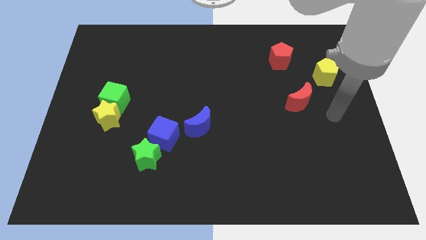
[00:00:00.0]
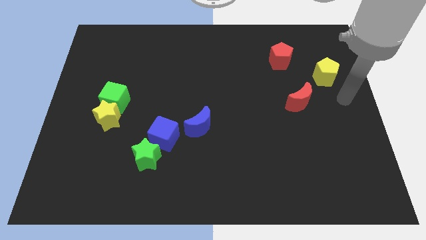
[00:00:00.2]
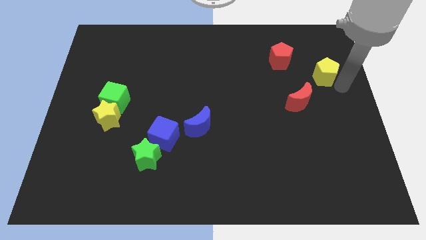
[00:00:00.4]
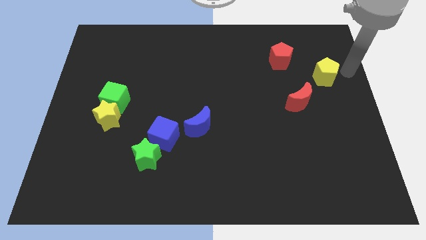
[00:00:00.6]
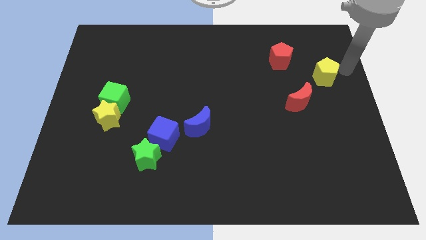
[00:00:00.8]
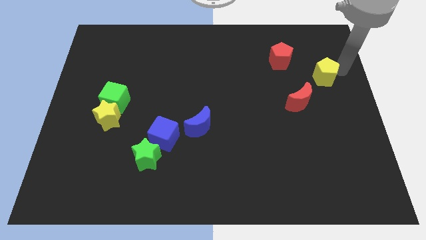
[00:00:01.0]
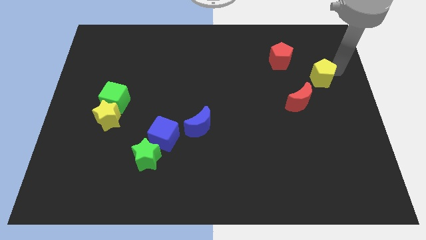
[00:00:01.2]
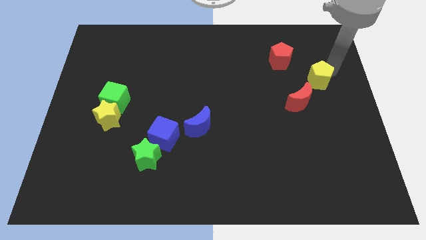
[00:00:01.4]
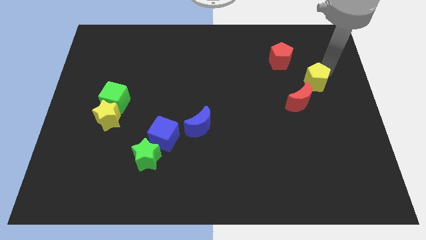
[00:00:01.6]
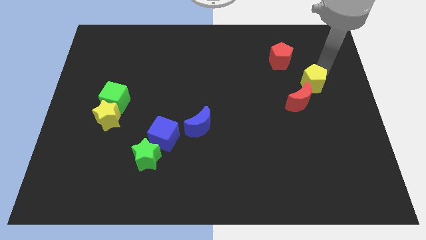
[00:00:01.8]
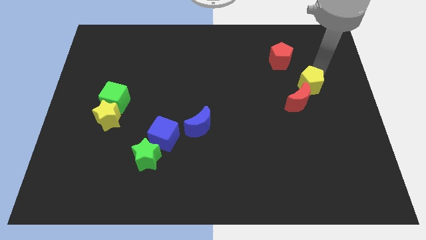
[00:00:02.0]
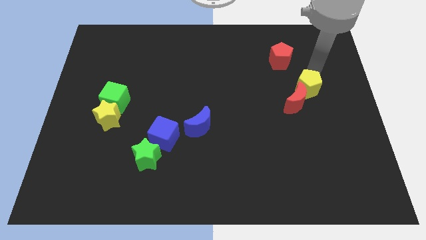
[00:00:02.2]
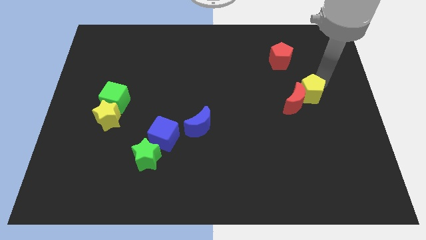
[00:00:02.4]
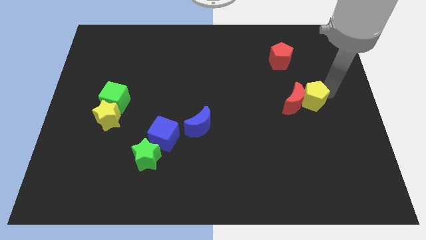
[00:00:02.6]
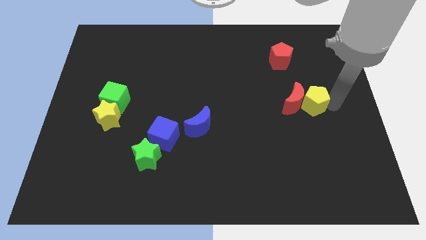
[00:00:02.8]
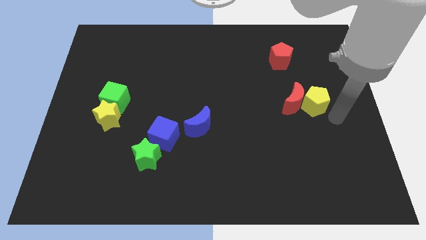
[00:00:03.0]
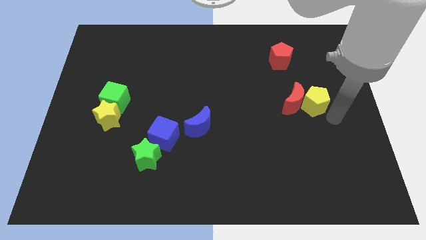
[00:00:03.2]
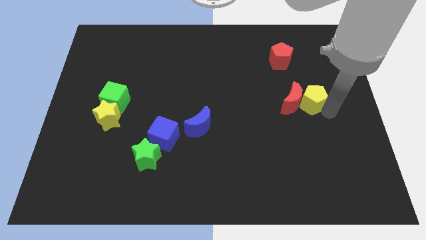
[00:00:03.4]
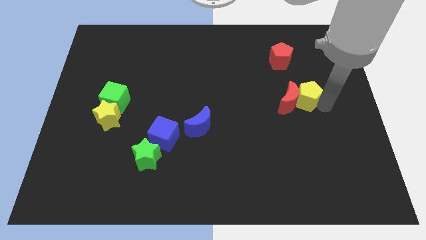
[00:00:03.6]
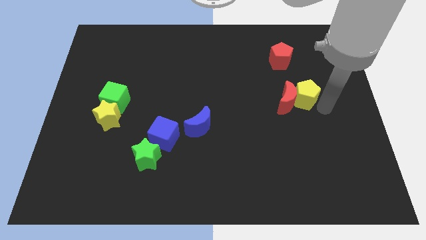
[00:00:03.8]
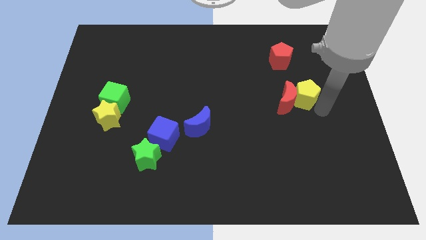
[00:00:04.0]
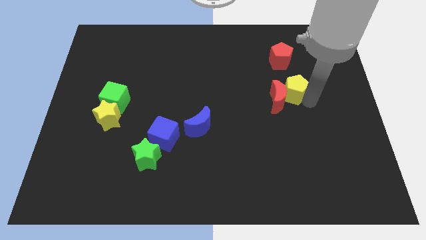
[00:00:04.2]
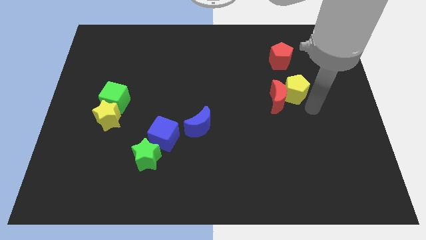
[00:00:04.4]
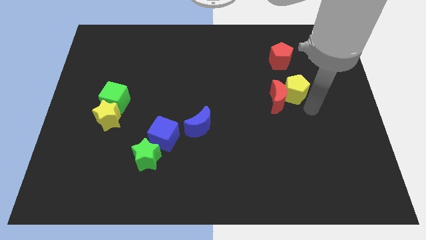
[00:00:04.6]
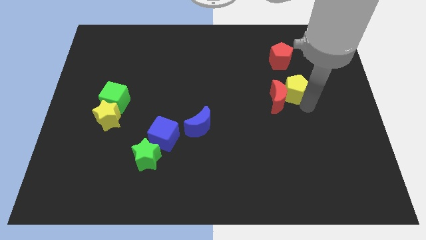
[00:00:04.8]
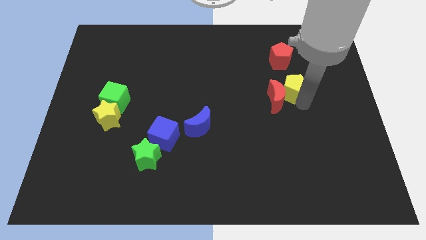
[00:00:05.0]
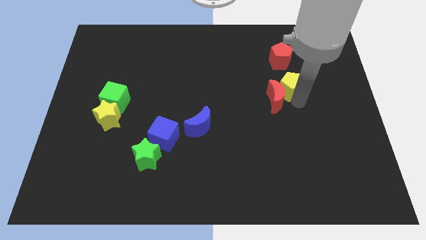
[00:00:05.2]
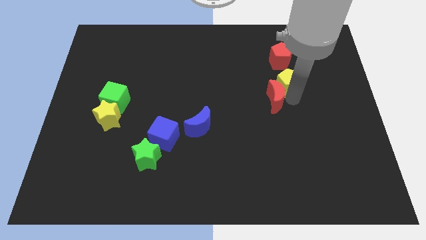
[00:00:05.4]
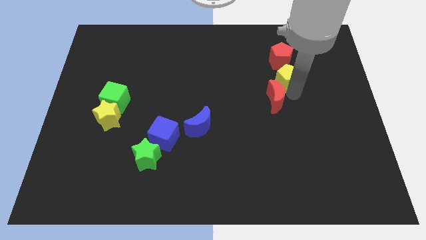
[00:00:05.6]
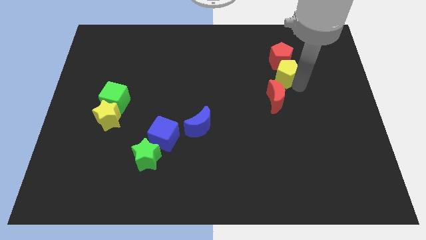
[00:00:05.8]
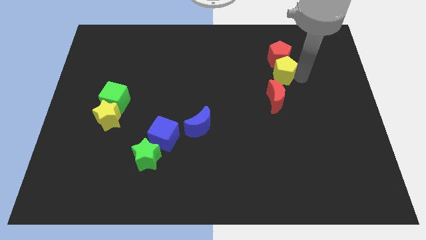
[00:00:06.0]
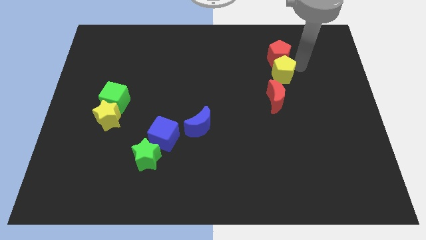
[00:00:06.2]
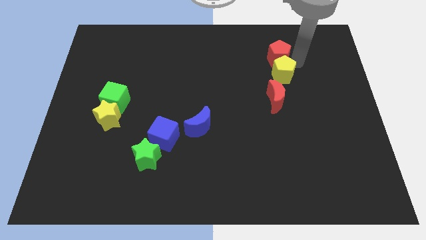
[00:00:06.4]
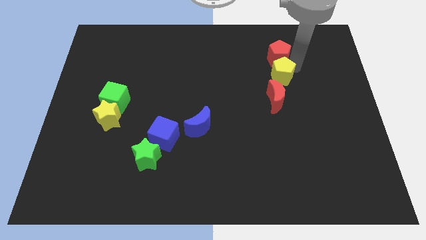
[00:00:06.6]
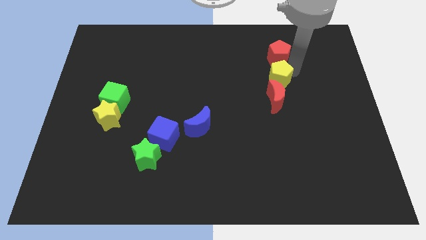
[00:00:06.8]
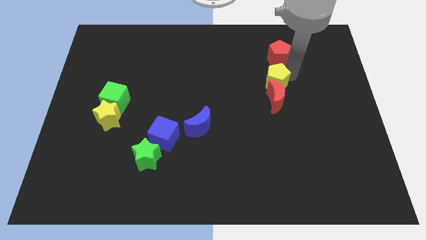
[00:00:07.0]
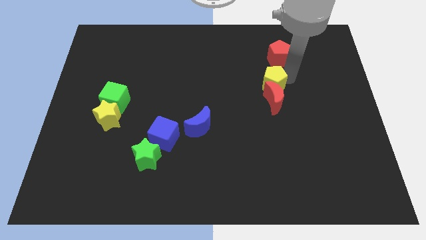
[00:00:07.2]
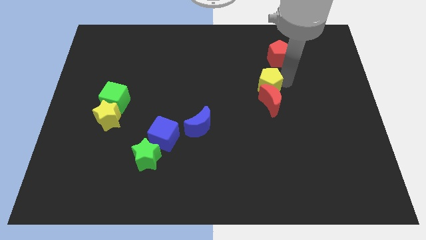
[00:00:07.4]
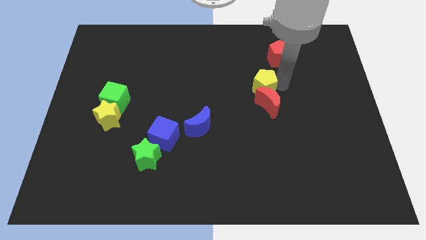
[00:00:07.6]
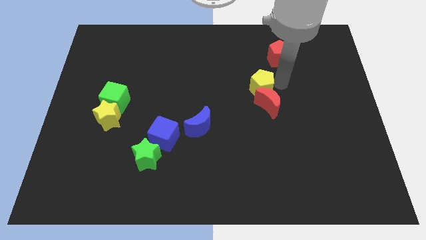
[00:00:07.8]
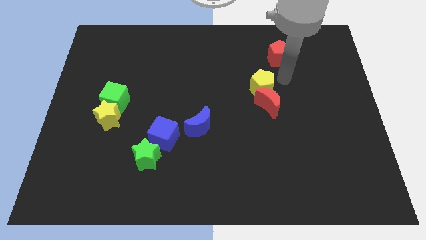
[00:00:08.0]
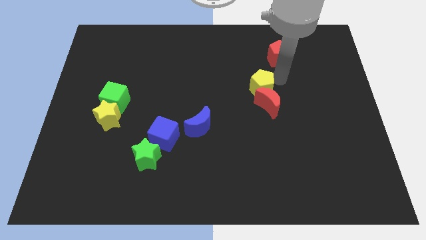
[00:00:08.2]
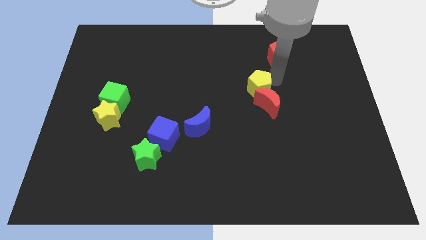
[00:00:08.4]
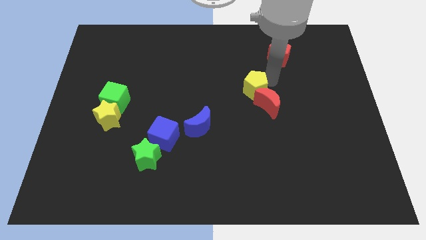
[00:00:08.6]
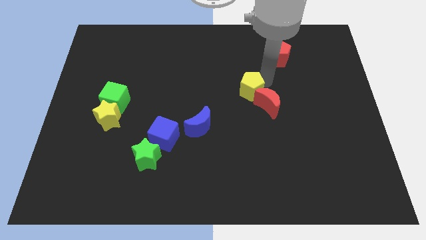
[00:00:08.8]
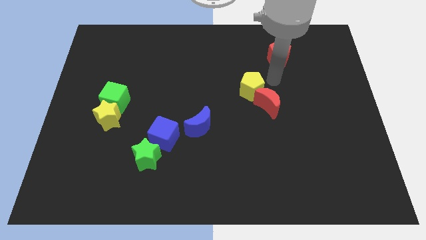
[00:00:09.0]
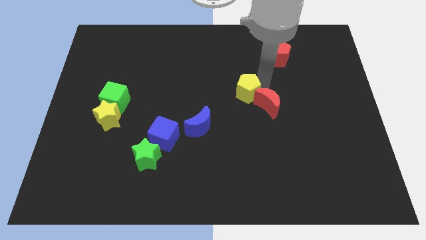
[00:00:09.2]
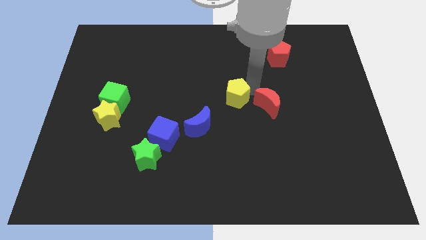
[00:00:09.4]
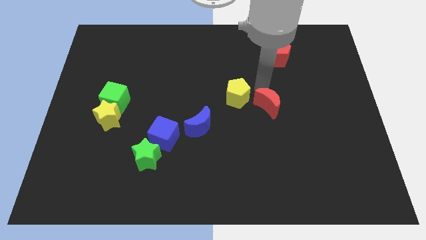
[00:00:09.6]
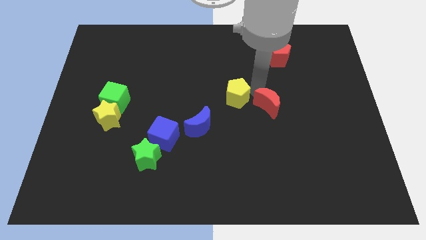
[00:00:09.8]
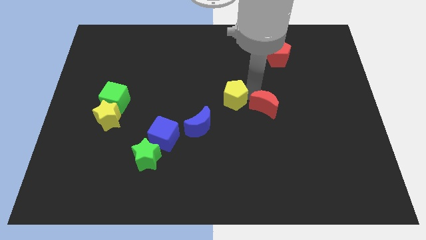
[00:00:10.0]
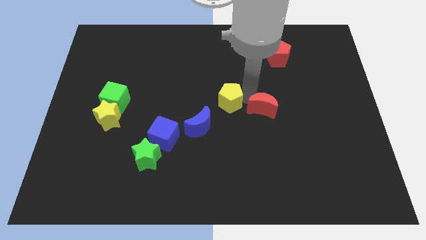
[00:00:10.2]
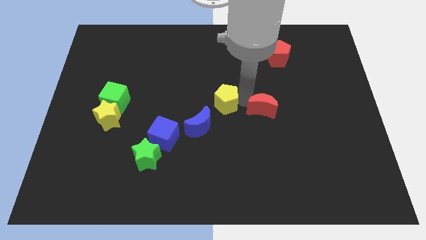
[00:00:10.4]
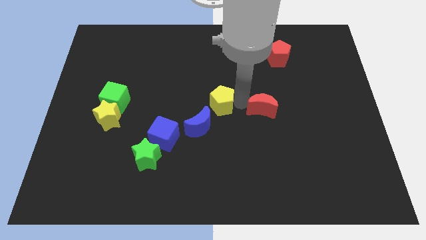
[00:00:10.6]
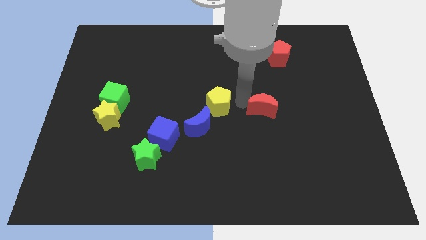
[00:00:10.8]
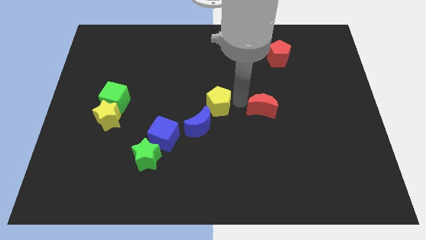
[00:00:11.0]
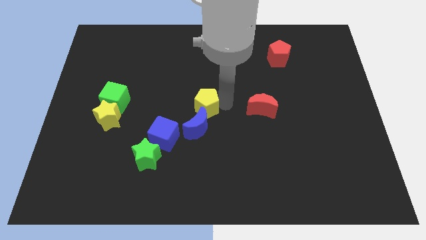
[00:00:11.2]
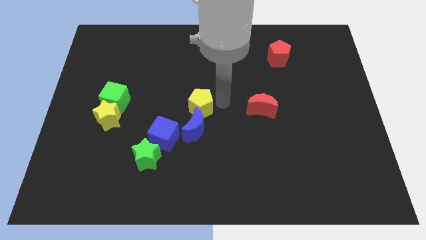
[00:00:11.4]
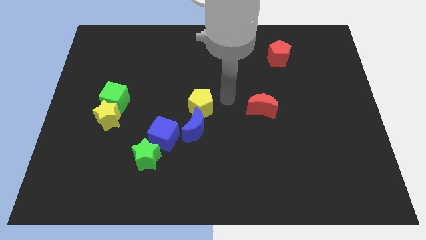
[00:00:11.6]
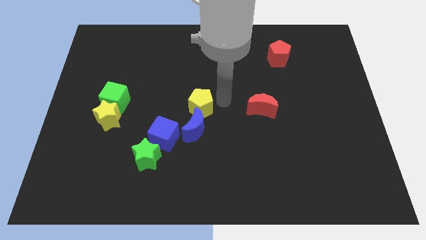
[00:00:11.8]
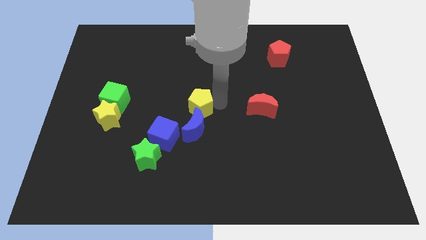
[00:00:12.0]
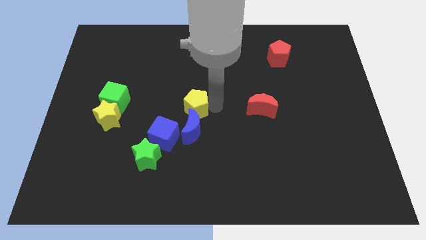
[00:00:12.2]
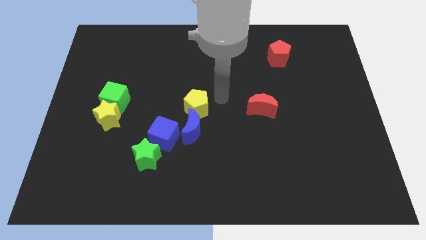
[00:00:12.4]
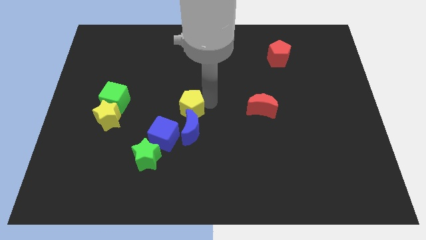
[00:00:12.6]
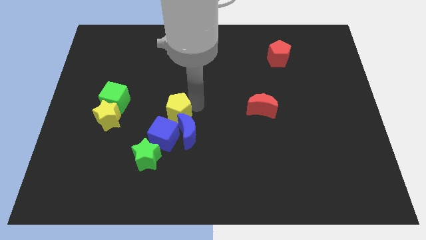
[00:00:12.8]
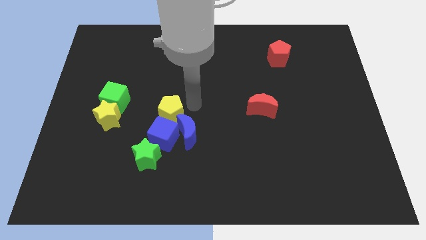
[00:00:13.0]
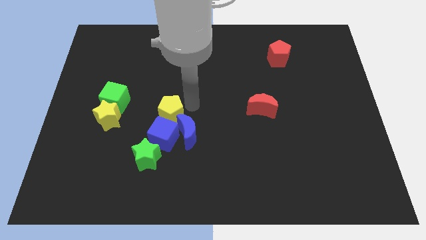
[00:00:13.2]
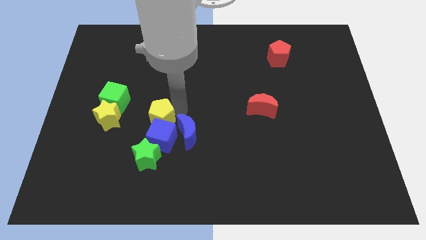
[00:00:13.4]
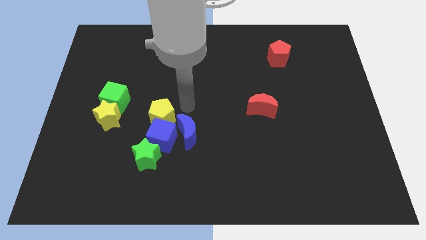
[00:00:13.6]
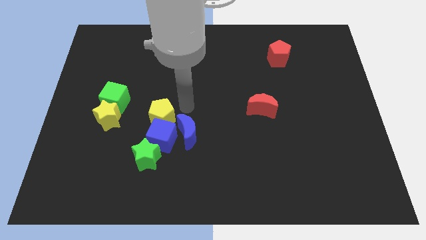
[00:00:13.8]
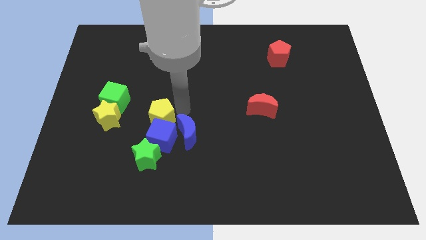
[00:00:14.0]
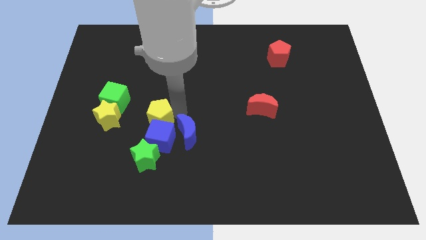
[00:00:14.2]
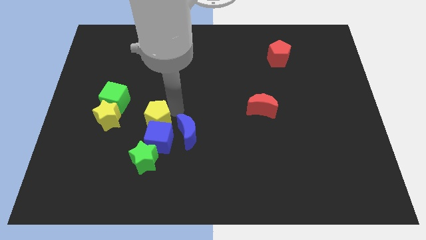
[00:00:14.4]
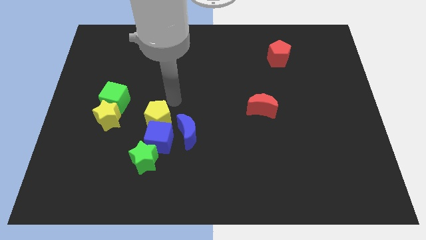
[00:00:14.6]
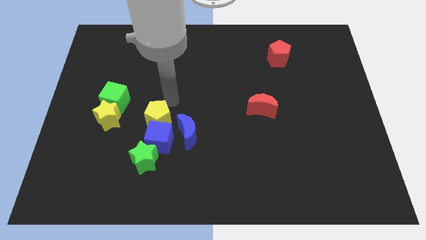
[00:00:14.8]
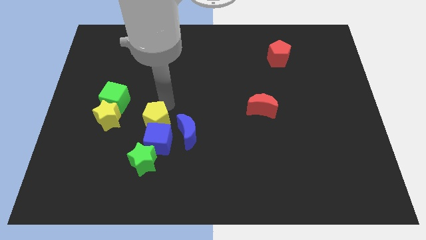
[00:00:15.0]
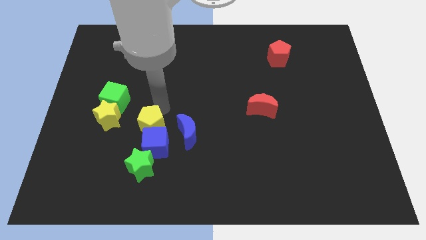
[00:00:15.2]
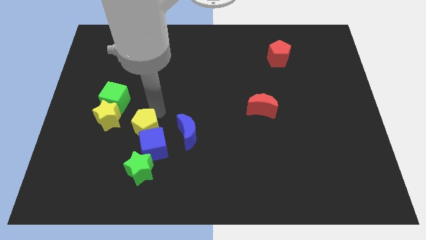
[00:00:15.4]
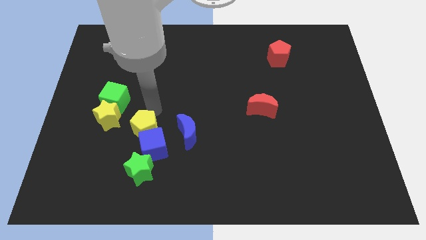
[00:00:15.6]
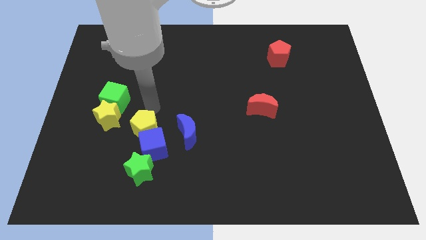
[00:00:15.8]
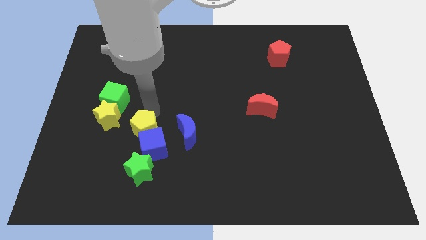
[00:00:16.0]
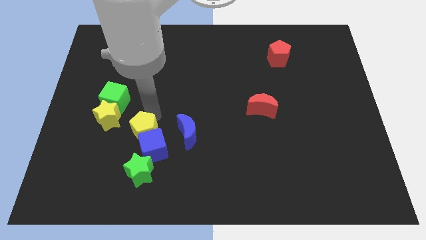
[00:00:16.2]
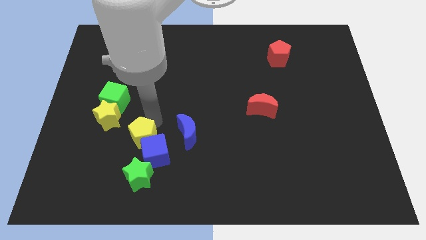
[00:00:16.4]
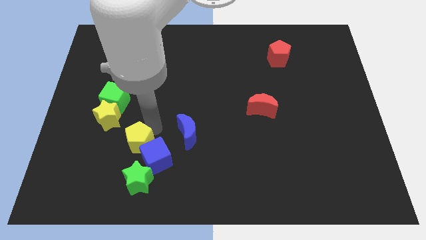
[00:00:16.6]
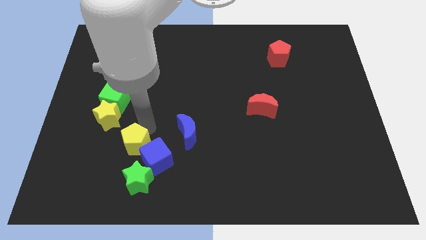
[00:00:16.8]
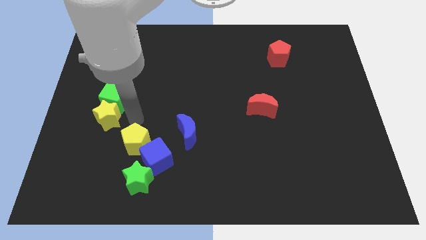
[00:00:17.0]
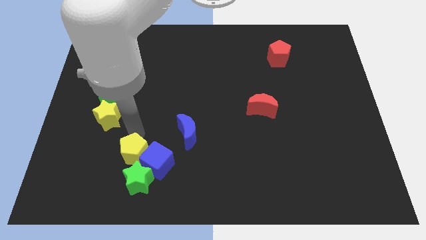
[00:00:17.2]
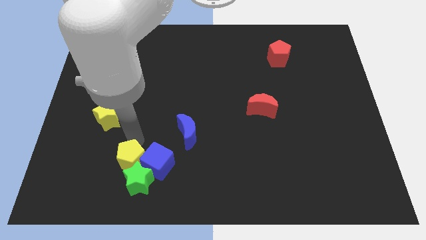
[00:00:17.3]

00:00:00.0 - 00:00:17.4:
put the yellow pentagon to the green star
